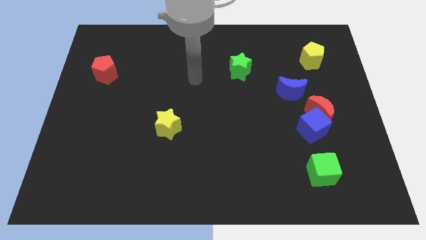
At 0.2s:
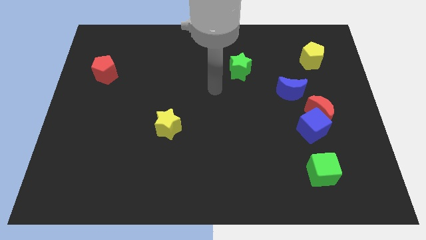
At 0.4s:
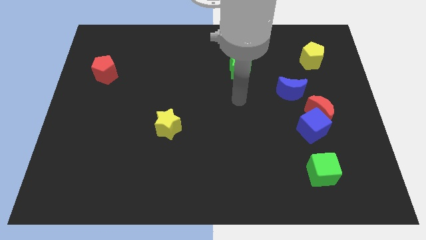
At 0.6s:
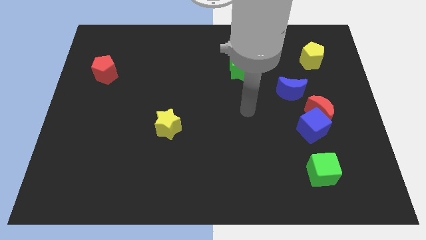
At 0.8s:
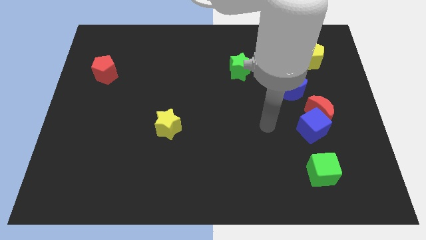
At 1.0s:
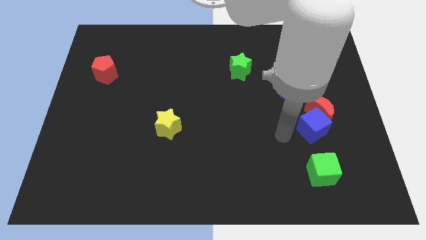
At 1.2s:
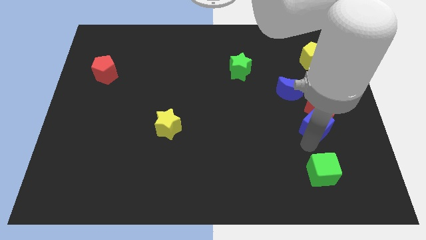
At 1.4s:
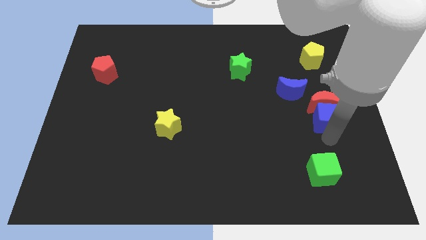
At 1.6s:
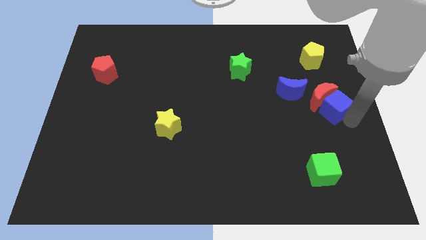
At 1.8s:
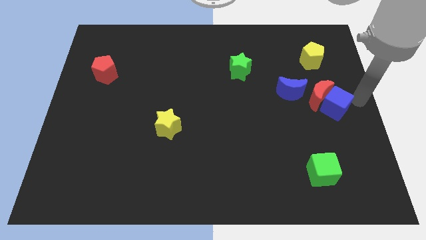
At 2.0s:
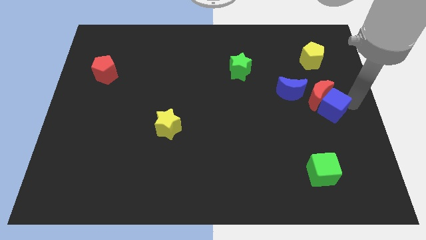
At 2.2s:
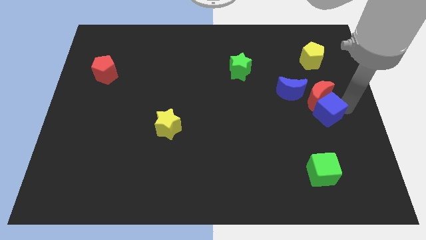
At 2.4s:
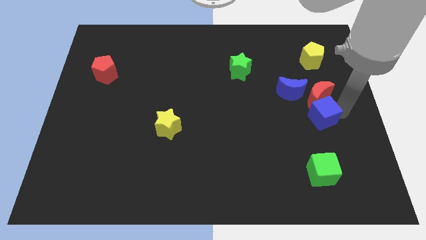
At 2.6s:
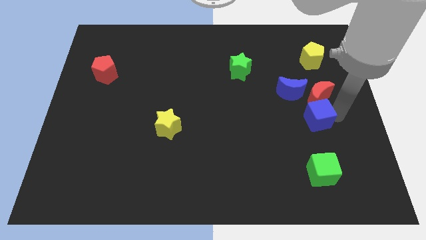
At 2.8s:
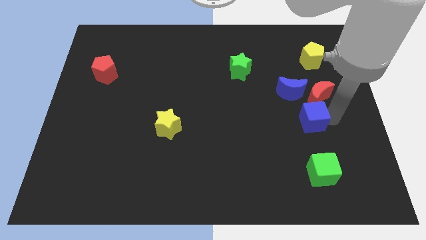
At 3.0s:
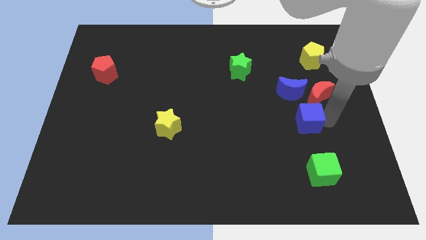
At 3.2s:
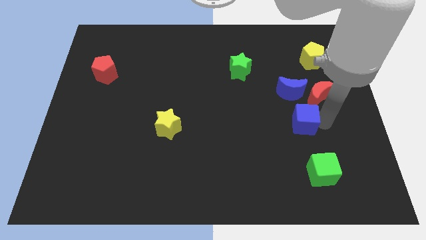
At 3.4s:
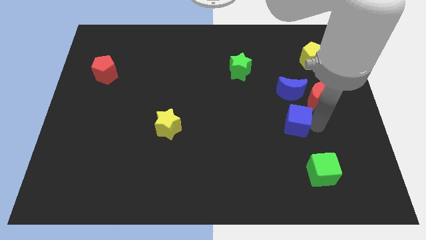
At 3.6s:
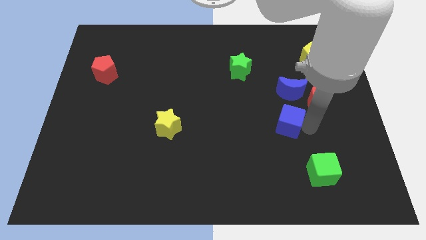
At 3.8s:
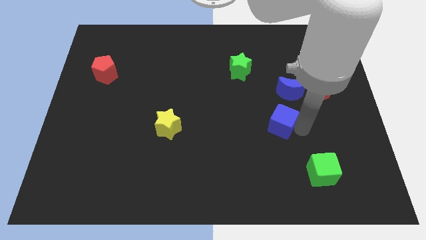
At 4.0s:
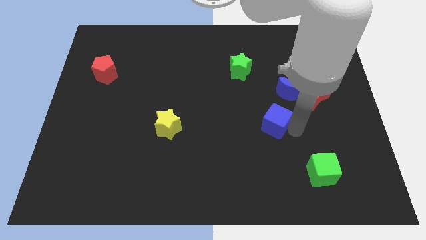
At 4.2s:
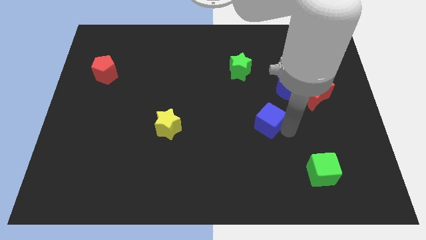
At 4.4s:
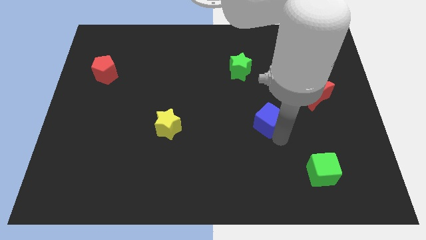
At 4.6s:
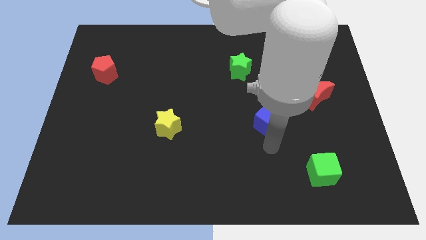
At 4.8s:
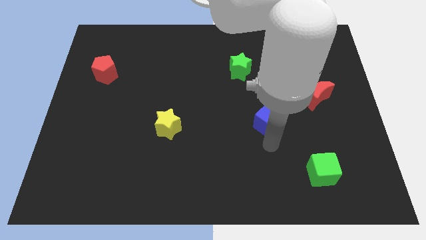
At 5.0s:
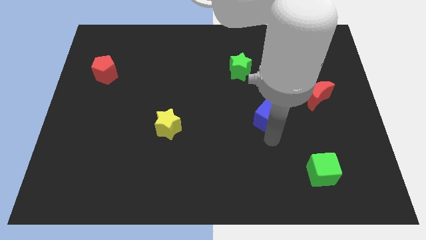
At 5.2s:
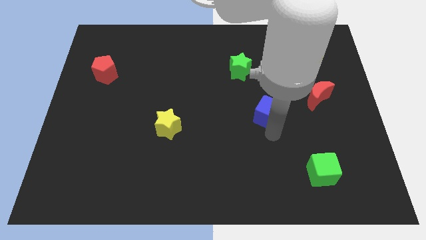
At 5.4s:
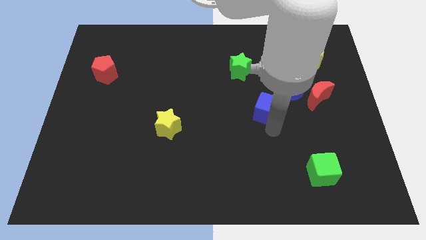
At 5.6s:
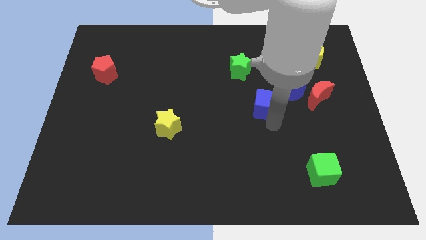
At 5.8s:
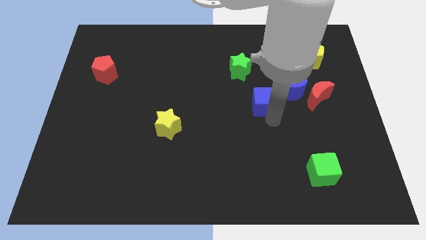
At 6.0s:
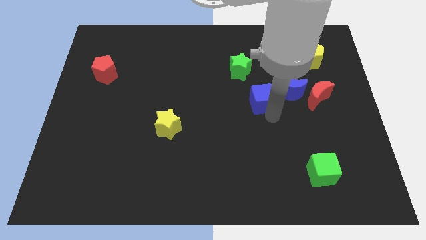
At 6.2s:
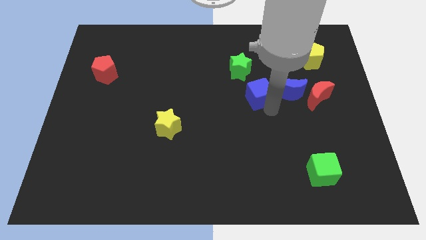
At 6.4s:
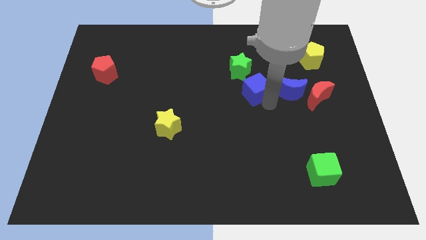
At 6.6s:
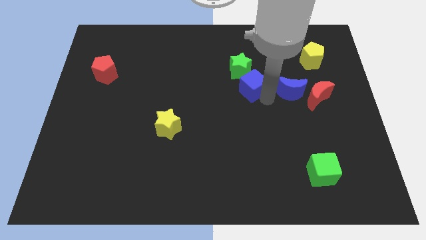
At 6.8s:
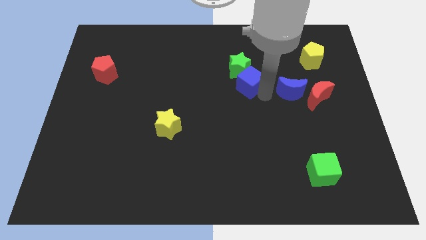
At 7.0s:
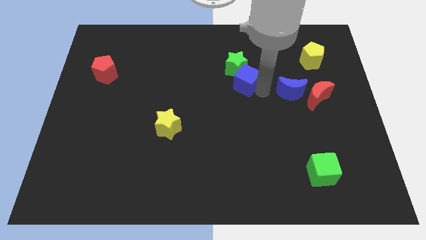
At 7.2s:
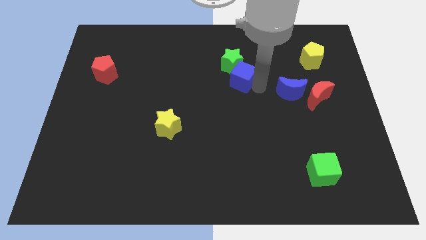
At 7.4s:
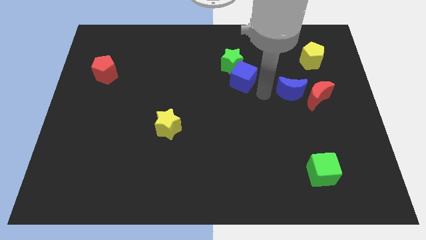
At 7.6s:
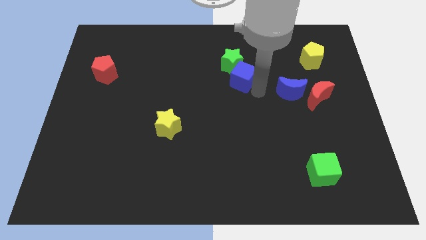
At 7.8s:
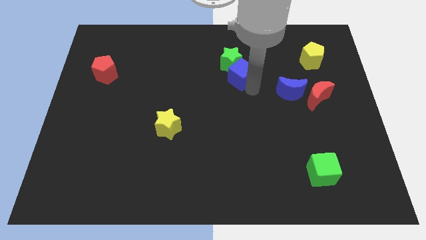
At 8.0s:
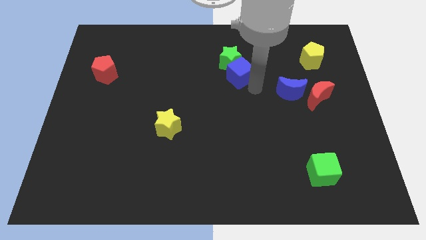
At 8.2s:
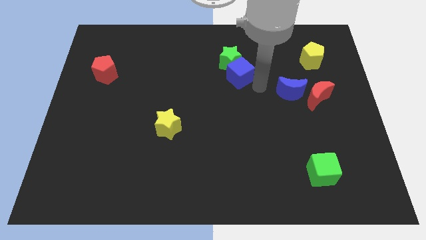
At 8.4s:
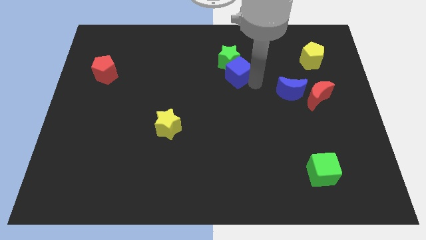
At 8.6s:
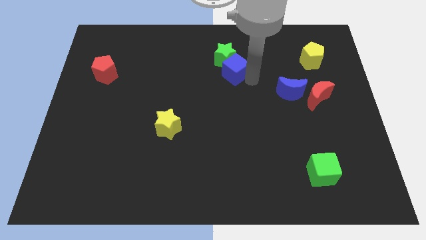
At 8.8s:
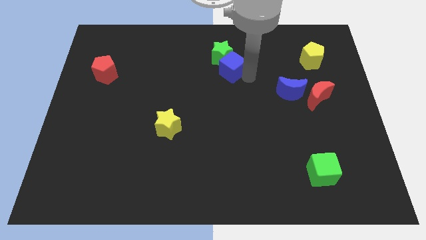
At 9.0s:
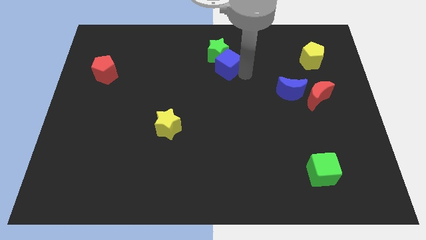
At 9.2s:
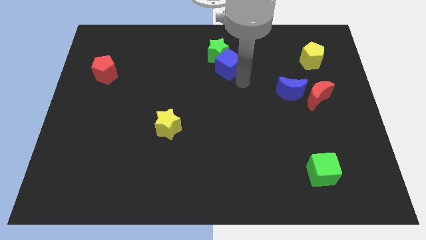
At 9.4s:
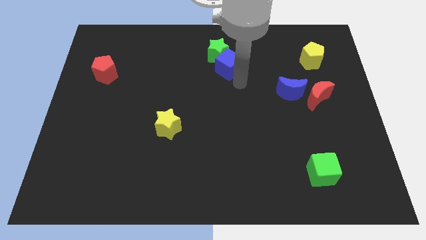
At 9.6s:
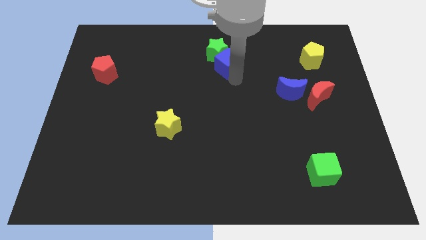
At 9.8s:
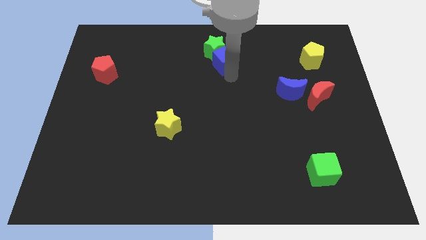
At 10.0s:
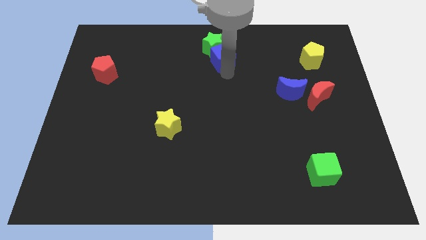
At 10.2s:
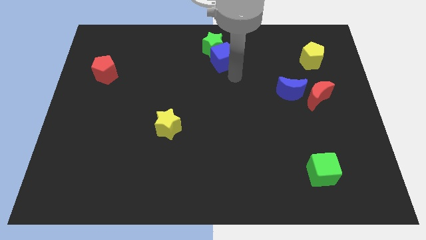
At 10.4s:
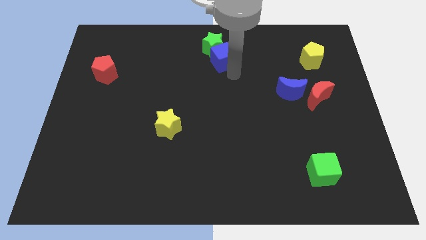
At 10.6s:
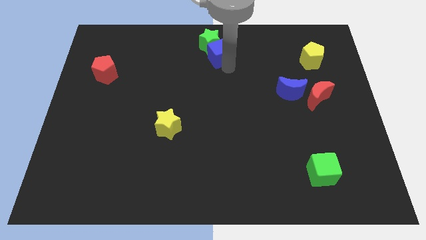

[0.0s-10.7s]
slide the blue cube to the top side

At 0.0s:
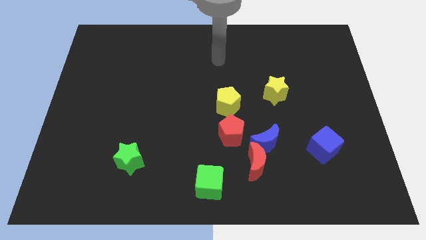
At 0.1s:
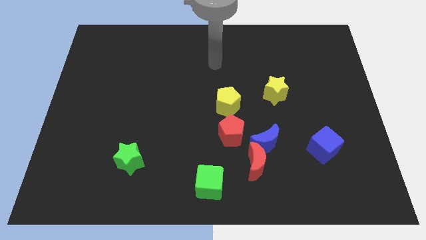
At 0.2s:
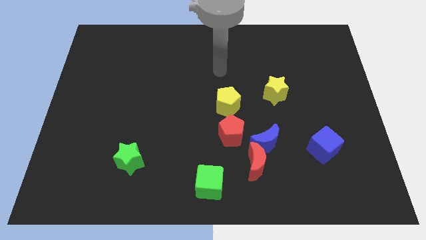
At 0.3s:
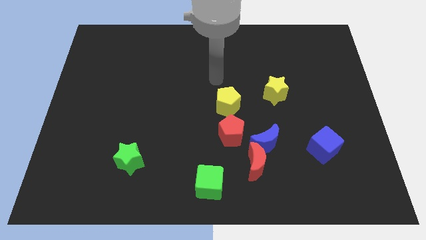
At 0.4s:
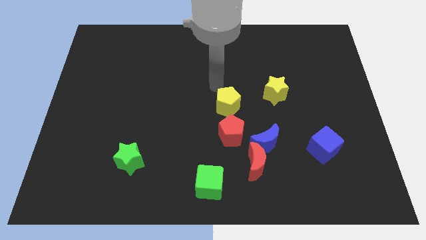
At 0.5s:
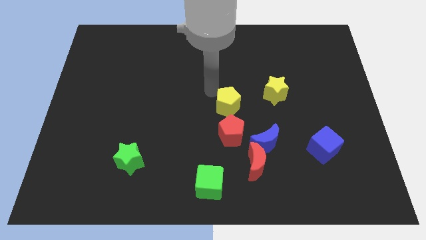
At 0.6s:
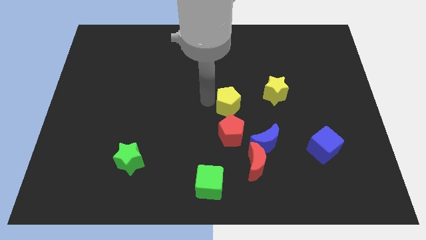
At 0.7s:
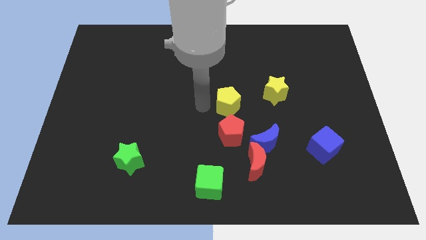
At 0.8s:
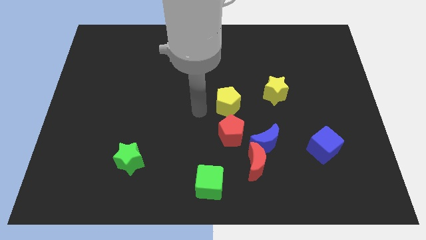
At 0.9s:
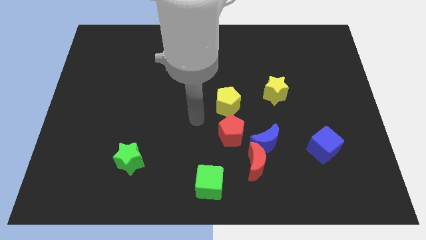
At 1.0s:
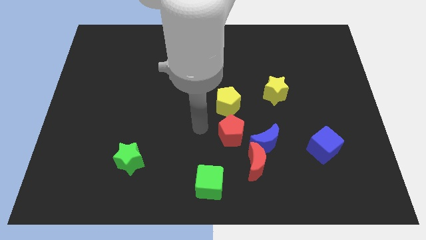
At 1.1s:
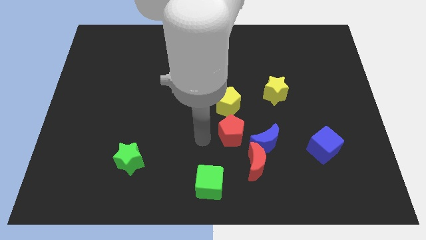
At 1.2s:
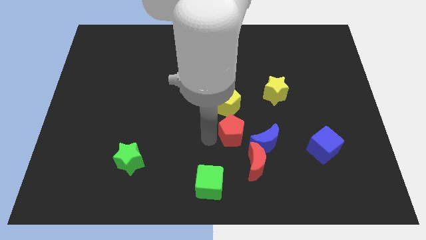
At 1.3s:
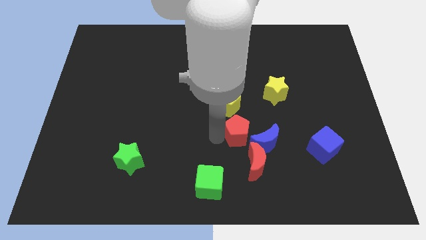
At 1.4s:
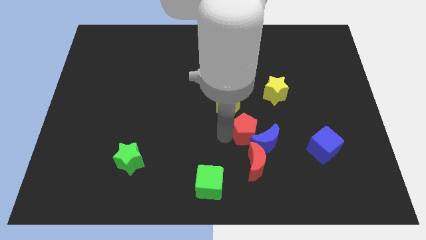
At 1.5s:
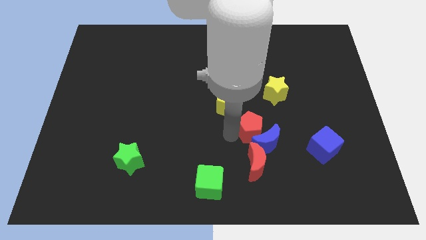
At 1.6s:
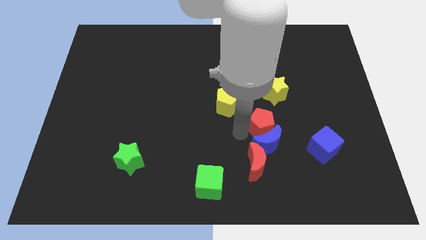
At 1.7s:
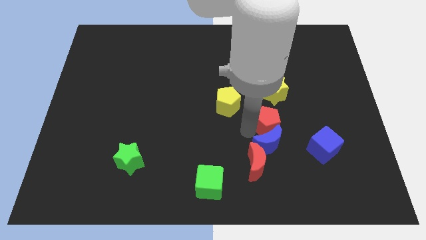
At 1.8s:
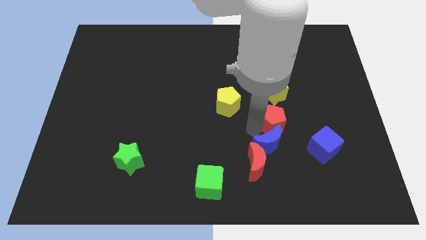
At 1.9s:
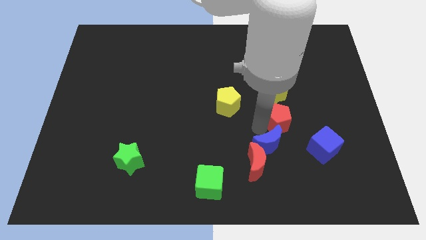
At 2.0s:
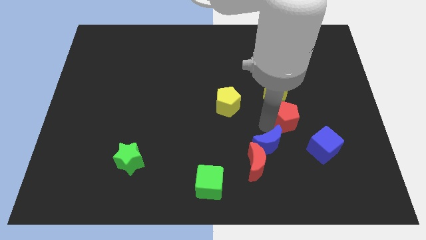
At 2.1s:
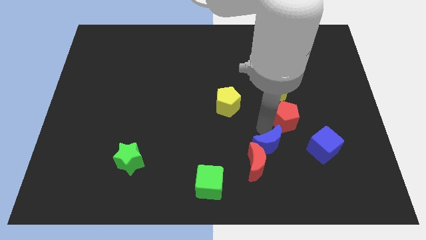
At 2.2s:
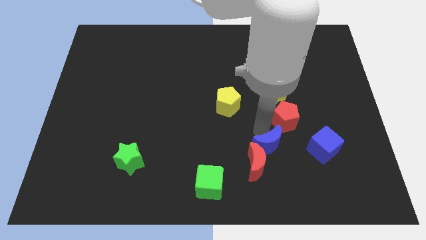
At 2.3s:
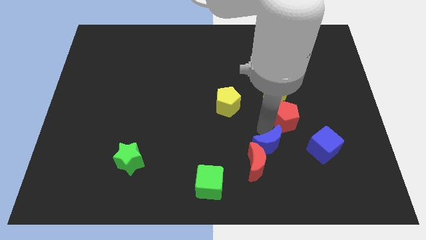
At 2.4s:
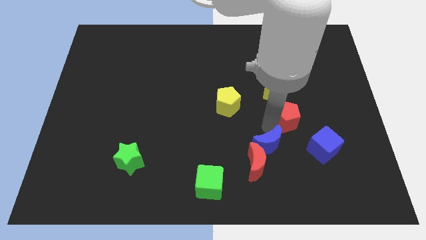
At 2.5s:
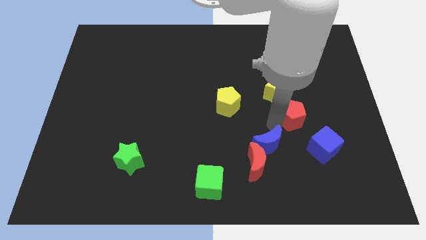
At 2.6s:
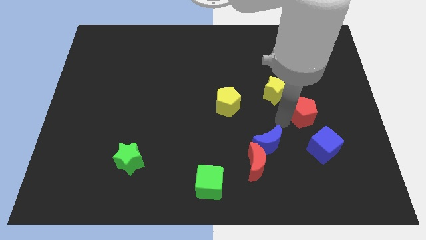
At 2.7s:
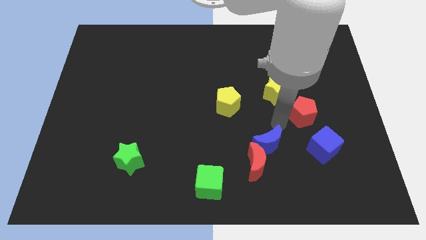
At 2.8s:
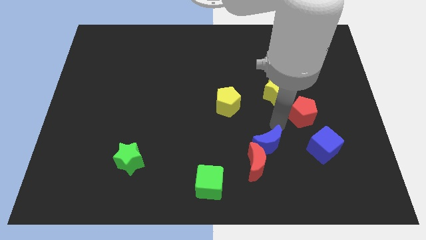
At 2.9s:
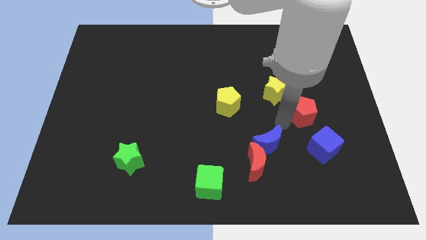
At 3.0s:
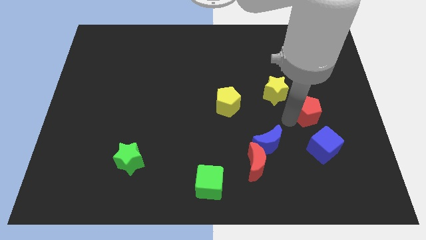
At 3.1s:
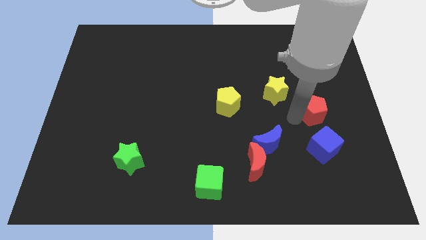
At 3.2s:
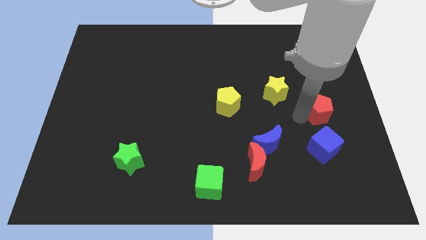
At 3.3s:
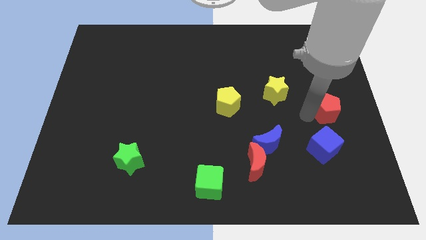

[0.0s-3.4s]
move the red pentagon to the right side of the board
